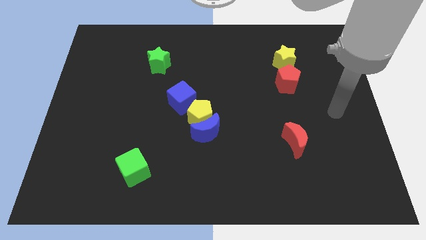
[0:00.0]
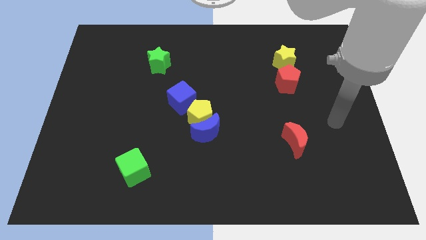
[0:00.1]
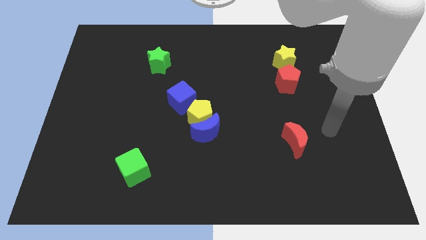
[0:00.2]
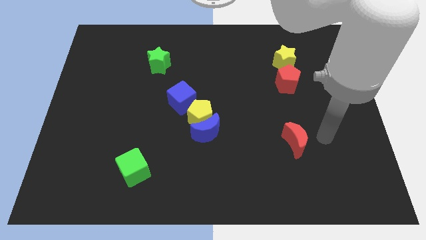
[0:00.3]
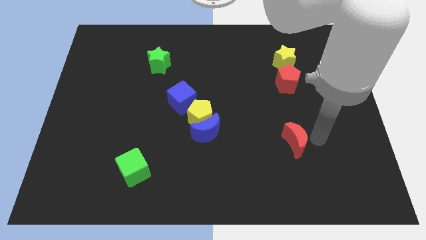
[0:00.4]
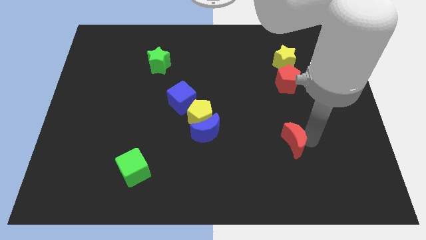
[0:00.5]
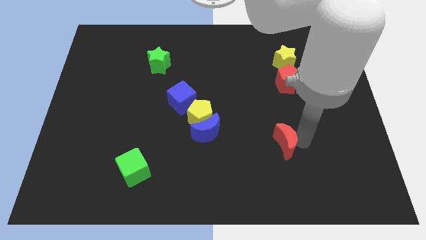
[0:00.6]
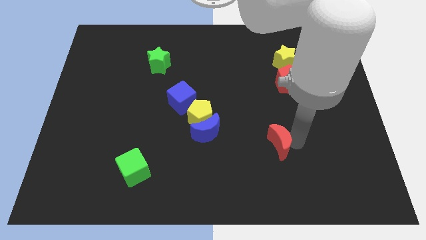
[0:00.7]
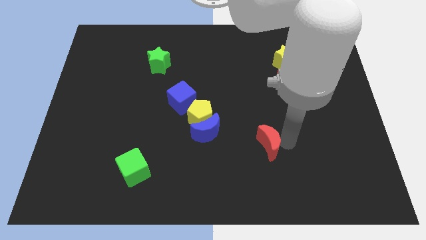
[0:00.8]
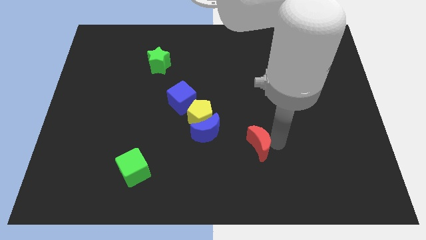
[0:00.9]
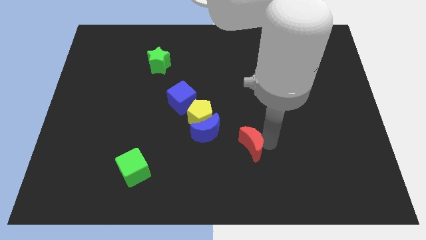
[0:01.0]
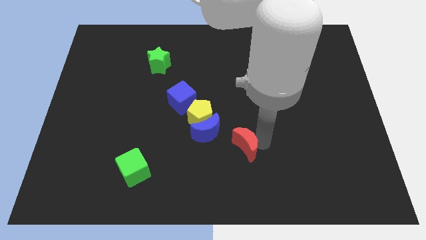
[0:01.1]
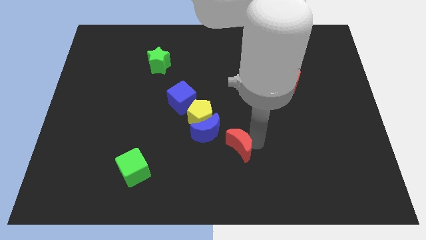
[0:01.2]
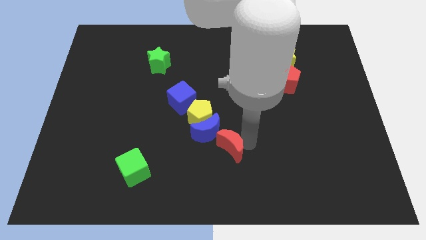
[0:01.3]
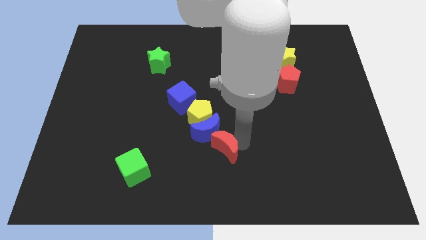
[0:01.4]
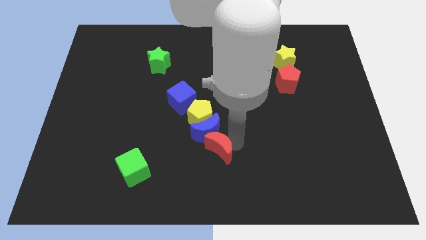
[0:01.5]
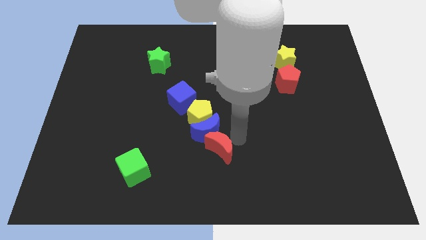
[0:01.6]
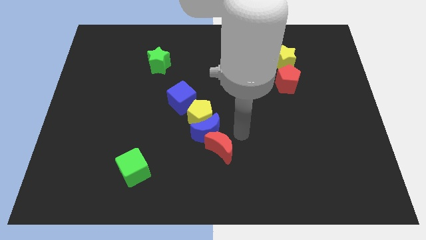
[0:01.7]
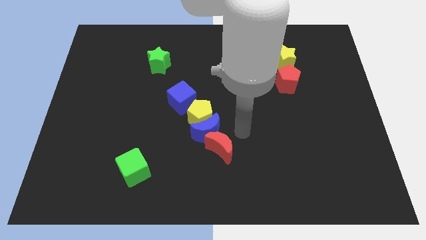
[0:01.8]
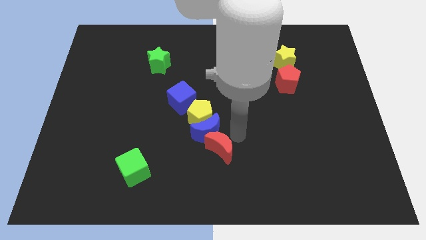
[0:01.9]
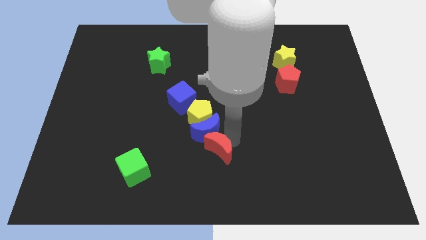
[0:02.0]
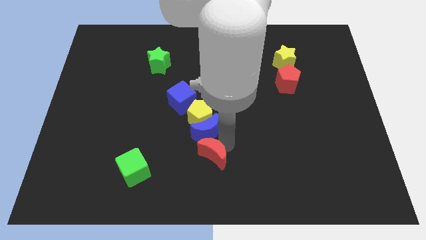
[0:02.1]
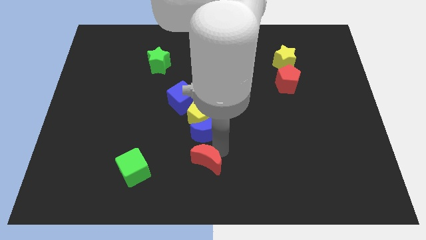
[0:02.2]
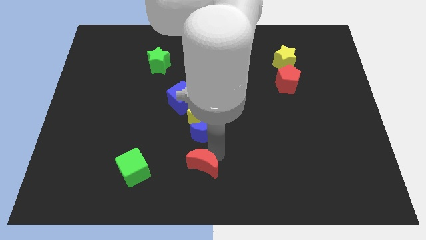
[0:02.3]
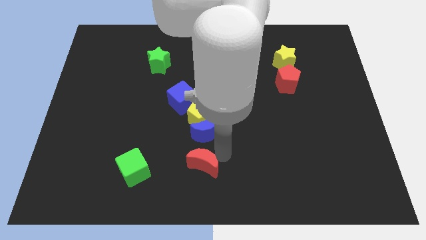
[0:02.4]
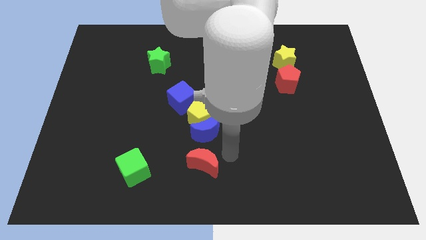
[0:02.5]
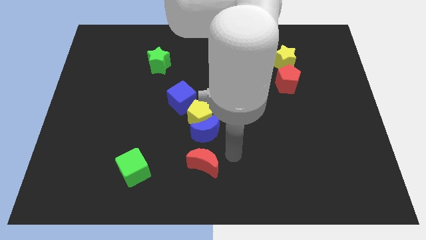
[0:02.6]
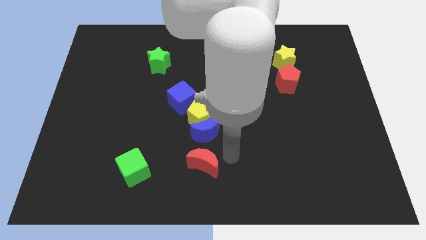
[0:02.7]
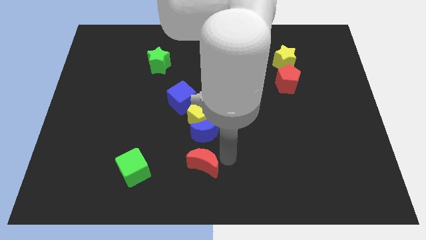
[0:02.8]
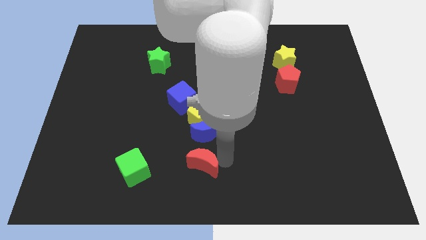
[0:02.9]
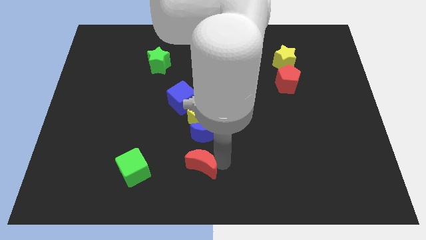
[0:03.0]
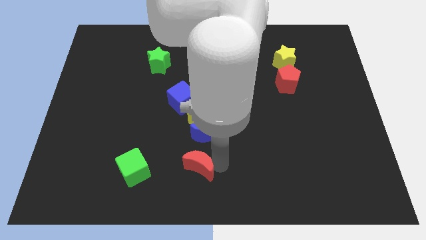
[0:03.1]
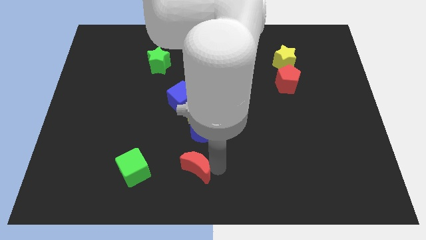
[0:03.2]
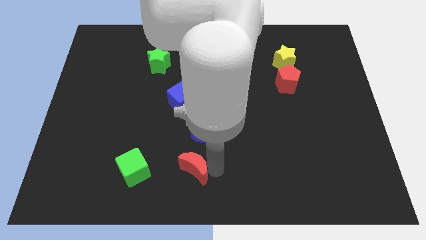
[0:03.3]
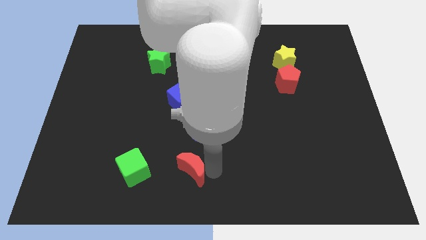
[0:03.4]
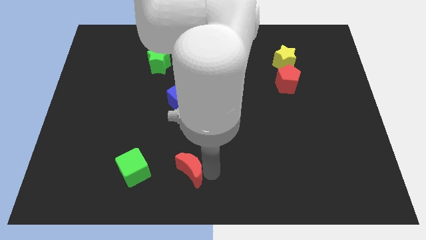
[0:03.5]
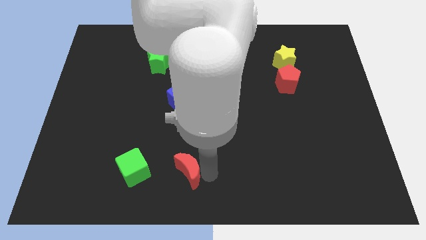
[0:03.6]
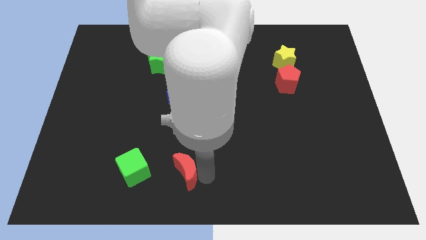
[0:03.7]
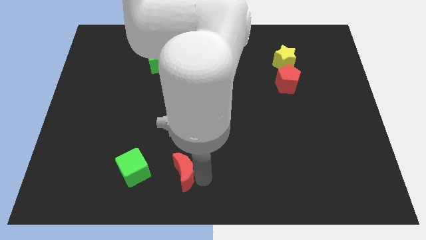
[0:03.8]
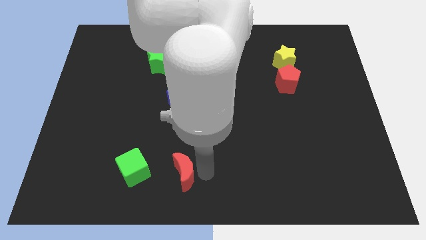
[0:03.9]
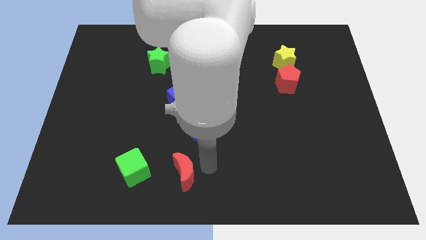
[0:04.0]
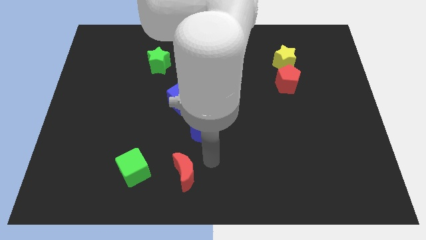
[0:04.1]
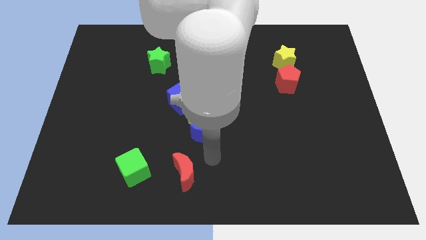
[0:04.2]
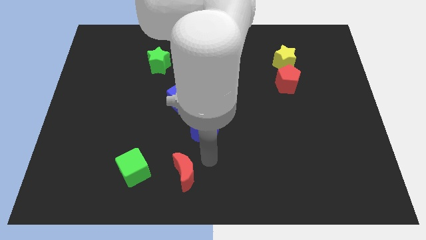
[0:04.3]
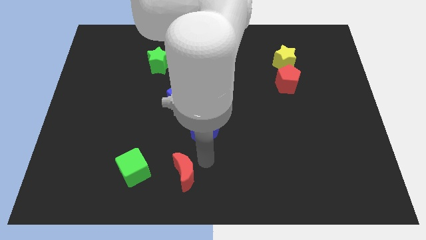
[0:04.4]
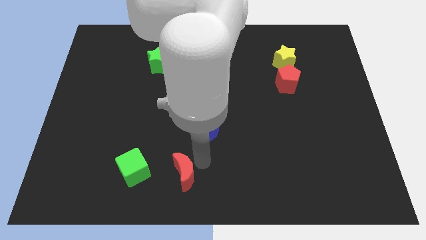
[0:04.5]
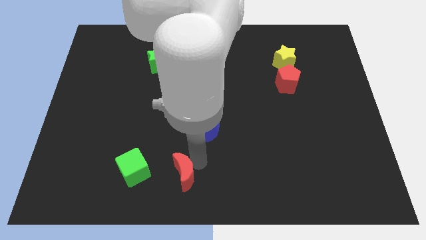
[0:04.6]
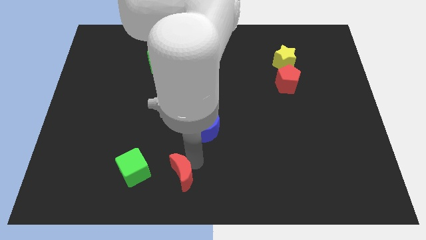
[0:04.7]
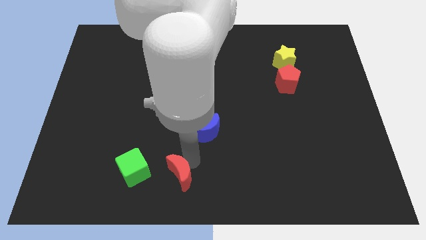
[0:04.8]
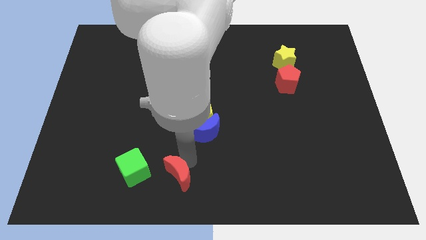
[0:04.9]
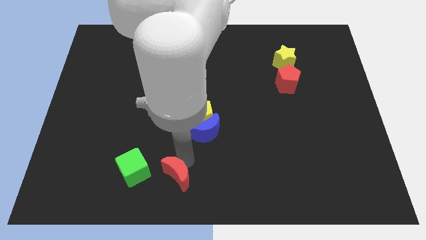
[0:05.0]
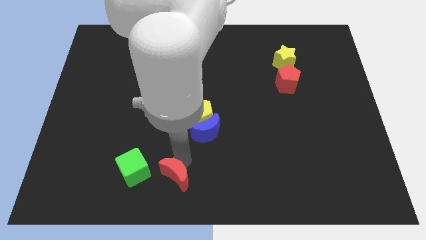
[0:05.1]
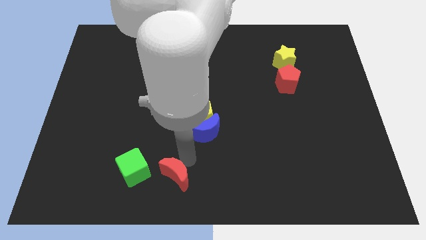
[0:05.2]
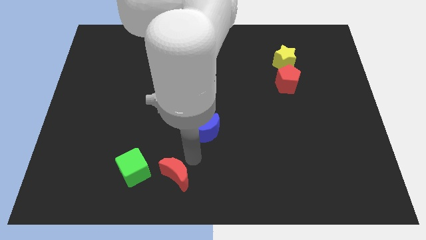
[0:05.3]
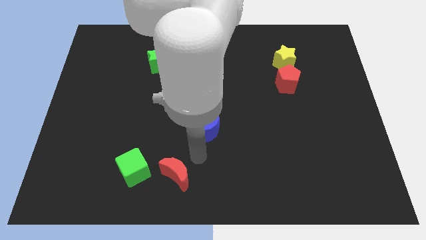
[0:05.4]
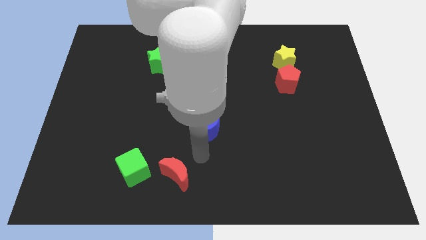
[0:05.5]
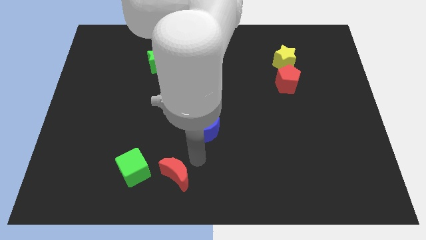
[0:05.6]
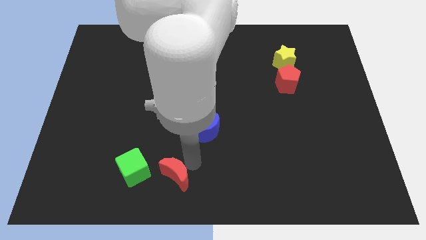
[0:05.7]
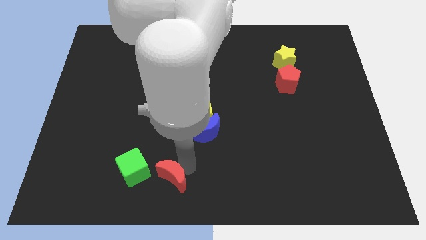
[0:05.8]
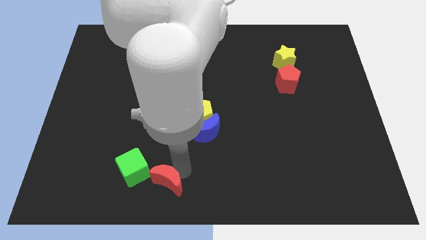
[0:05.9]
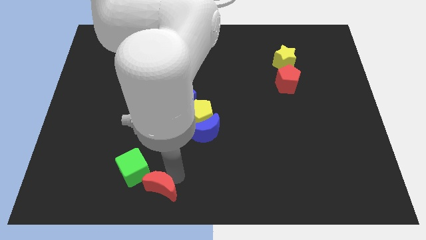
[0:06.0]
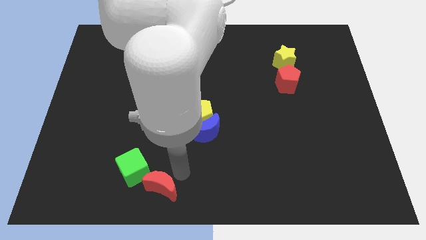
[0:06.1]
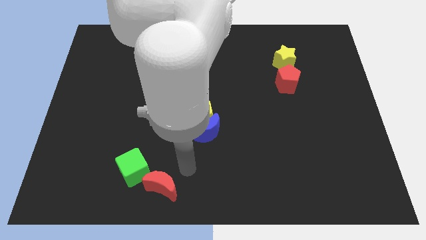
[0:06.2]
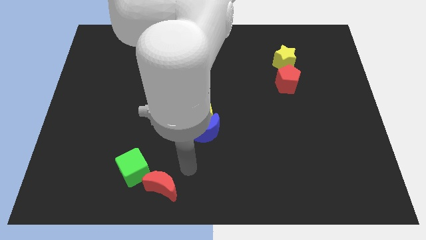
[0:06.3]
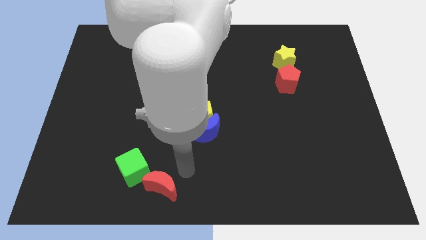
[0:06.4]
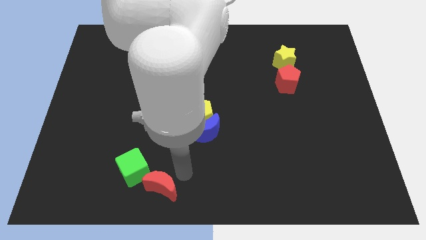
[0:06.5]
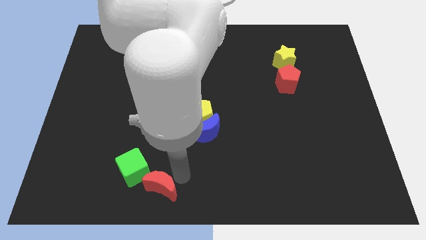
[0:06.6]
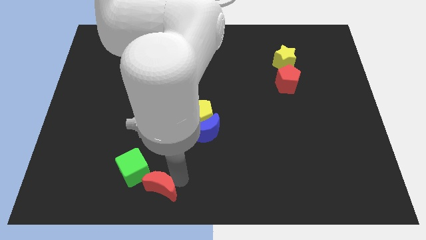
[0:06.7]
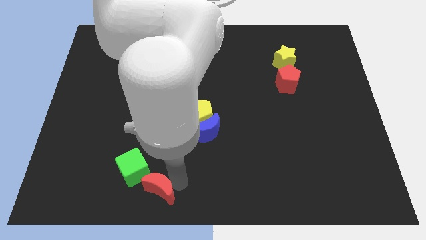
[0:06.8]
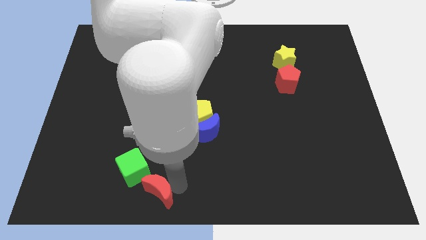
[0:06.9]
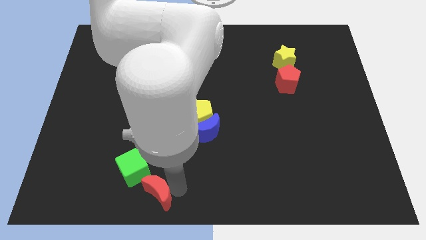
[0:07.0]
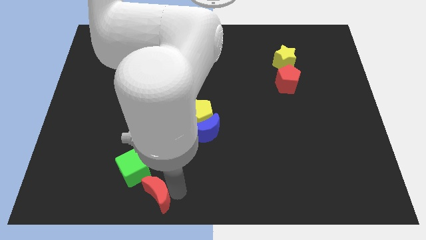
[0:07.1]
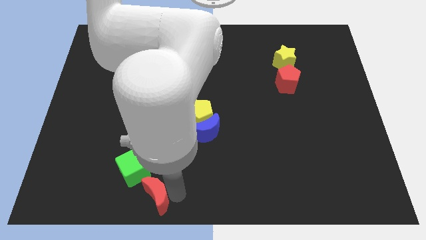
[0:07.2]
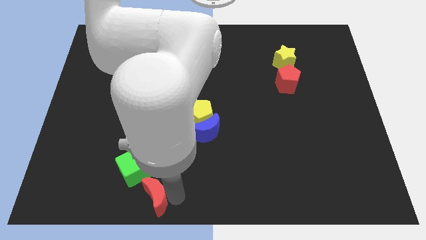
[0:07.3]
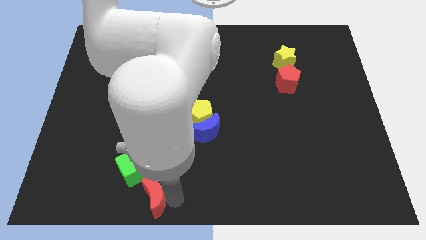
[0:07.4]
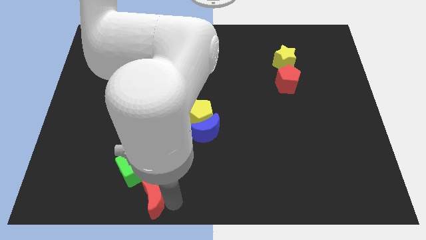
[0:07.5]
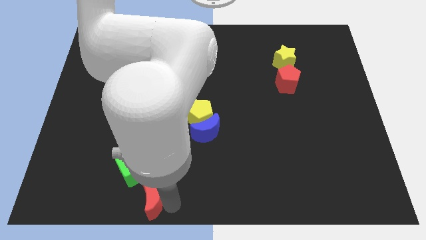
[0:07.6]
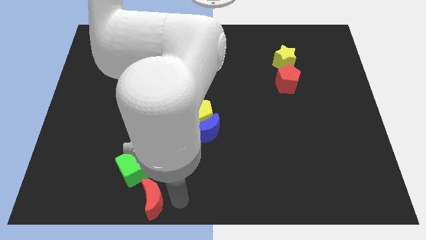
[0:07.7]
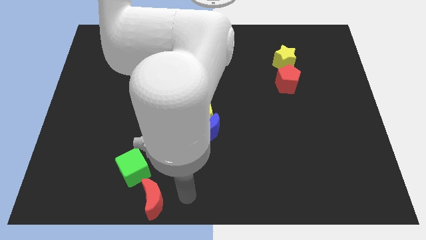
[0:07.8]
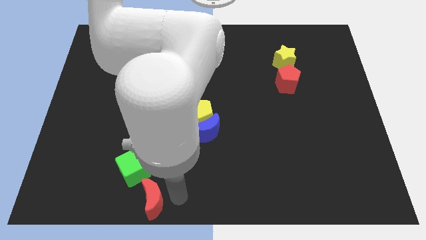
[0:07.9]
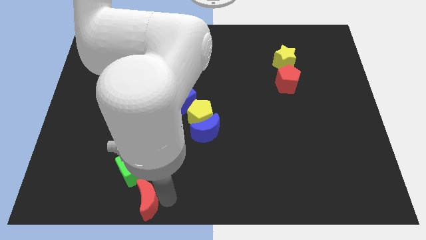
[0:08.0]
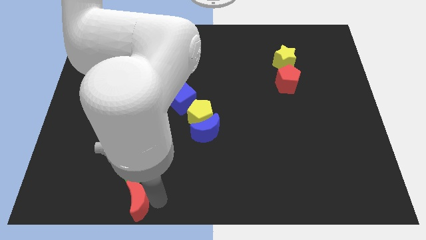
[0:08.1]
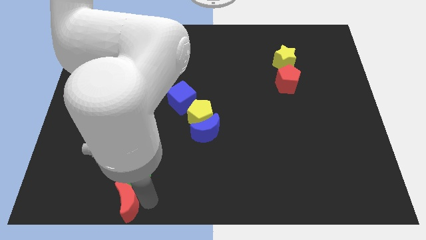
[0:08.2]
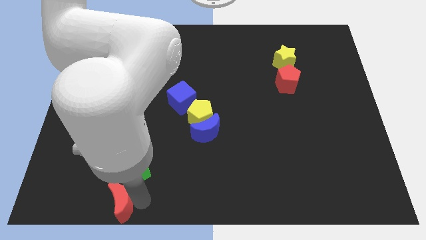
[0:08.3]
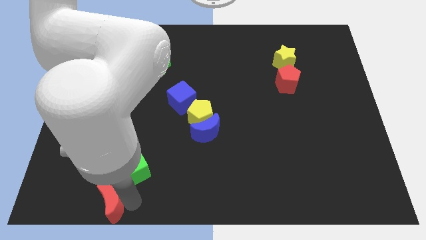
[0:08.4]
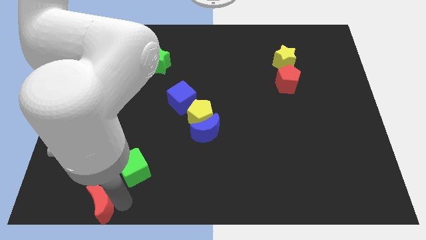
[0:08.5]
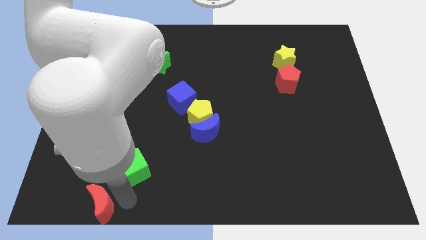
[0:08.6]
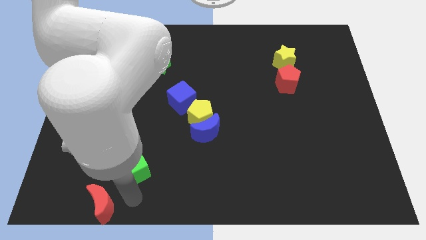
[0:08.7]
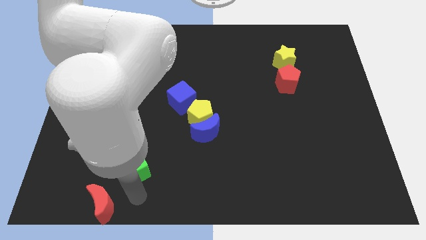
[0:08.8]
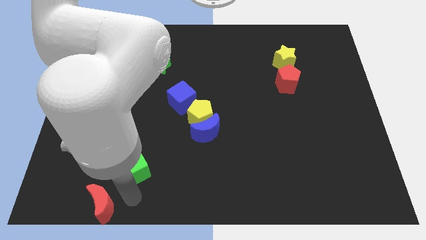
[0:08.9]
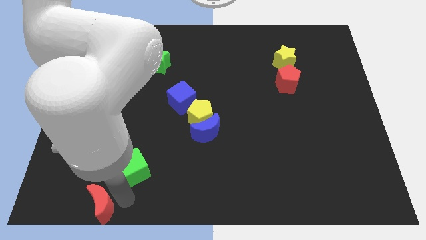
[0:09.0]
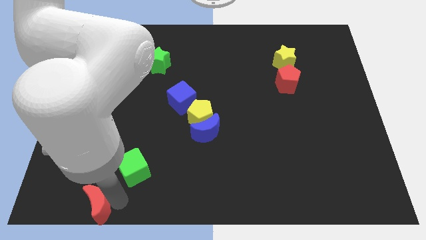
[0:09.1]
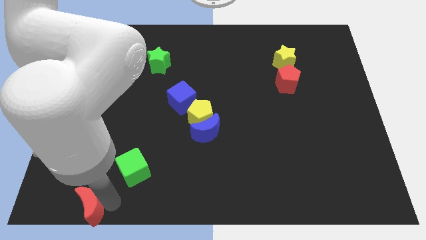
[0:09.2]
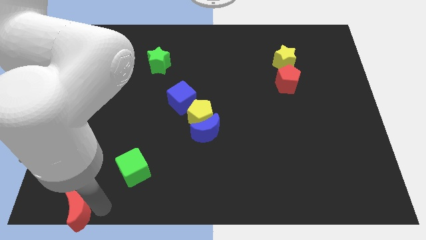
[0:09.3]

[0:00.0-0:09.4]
move the red moon to the lower left corner
